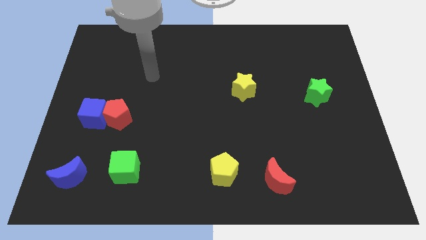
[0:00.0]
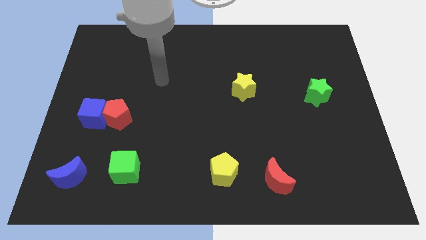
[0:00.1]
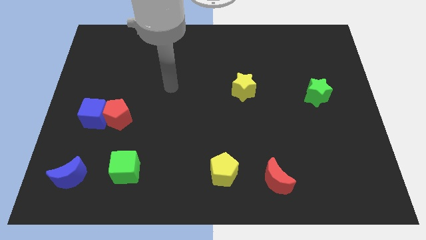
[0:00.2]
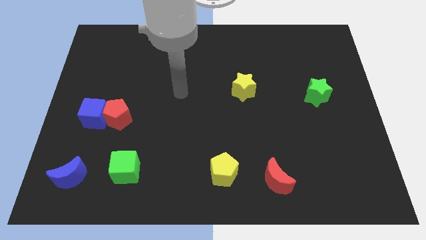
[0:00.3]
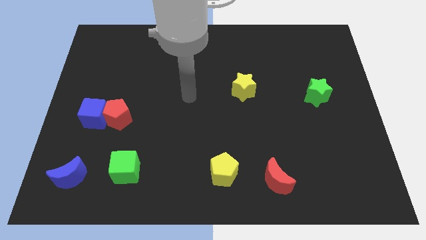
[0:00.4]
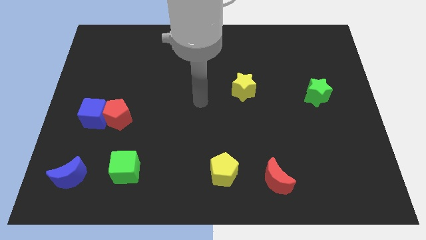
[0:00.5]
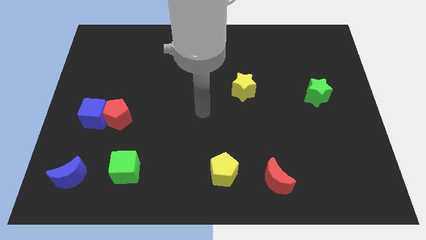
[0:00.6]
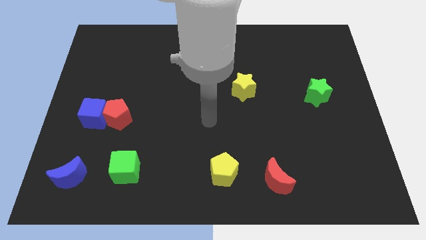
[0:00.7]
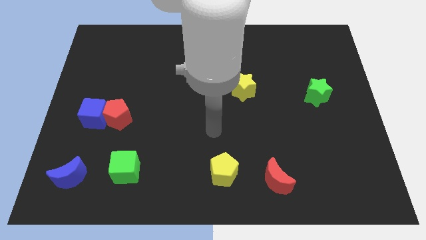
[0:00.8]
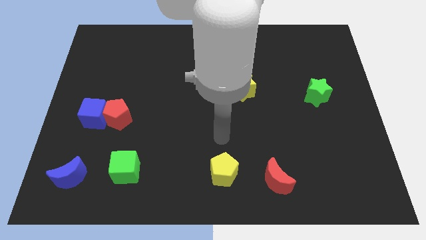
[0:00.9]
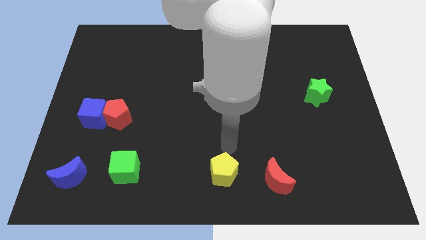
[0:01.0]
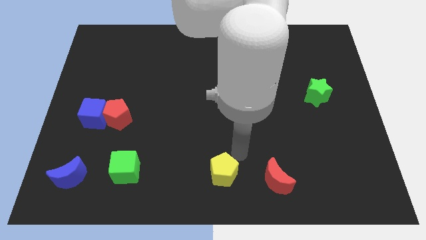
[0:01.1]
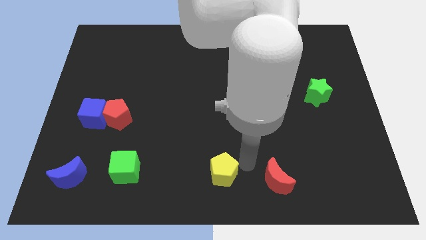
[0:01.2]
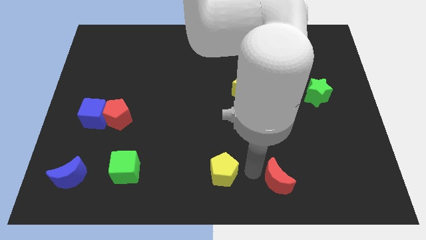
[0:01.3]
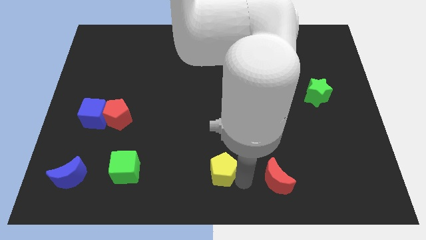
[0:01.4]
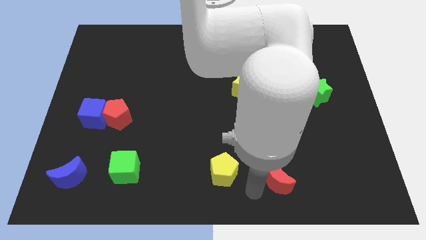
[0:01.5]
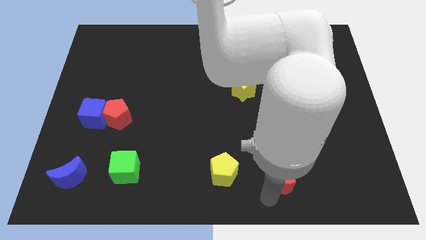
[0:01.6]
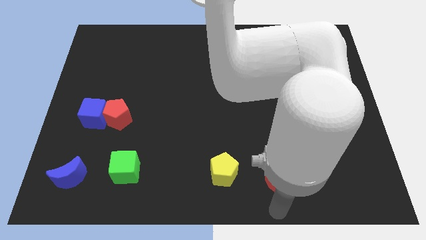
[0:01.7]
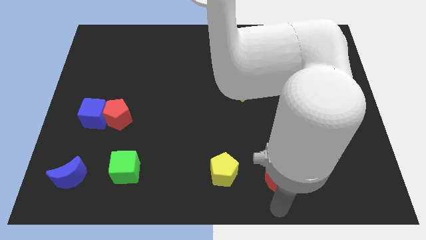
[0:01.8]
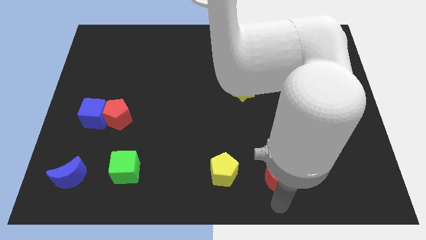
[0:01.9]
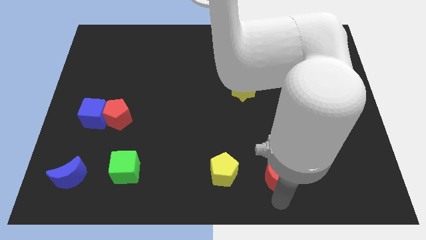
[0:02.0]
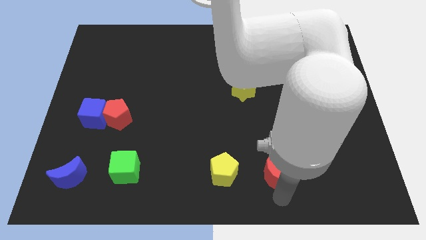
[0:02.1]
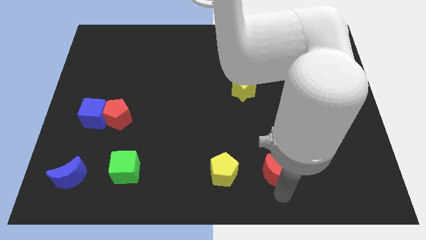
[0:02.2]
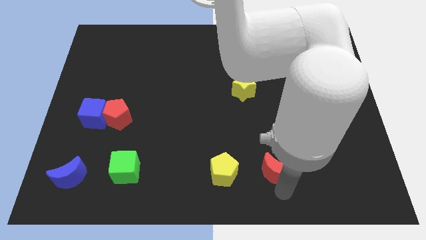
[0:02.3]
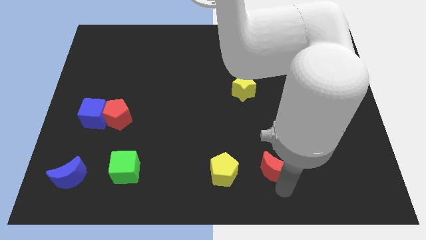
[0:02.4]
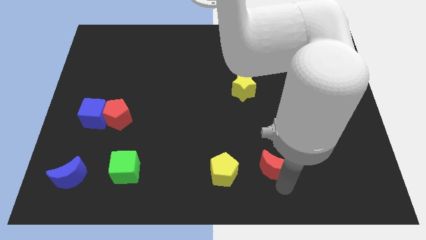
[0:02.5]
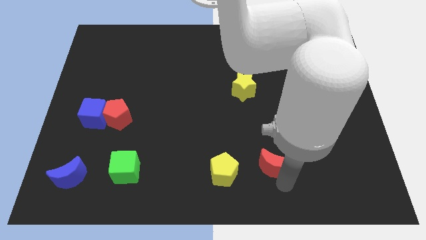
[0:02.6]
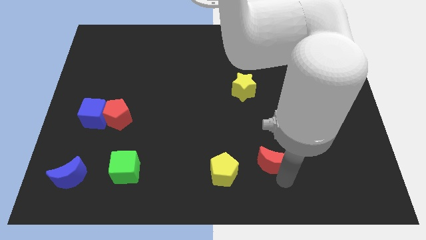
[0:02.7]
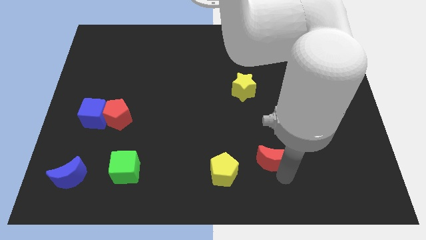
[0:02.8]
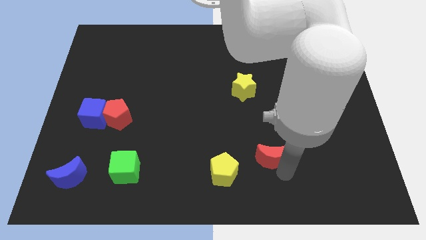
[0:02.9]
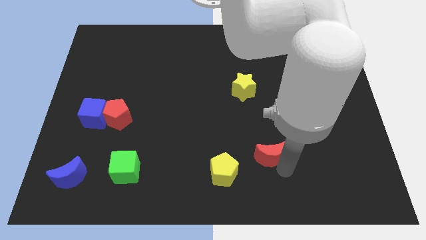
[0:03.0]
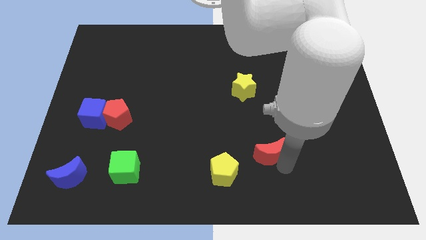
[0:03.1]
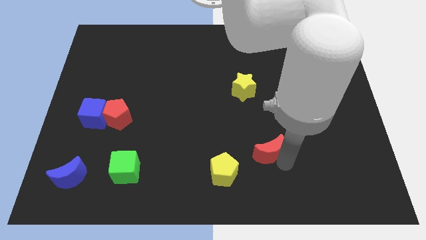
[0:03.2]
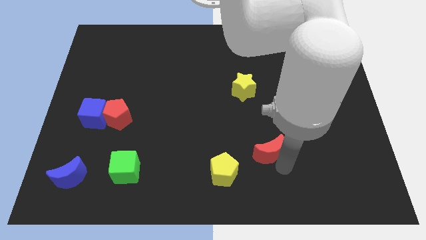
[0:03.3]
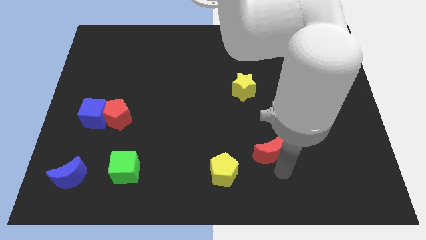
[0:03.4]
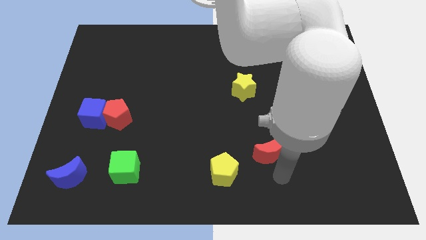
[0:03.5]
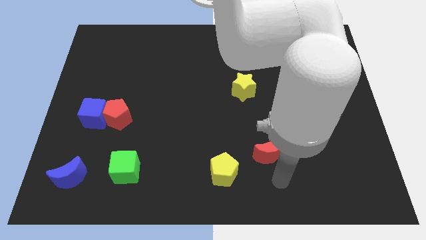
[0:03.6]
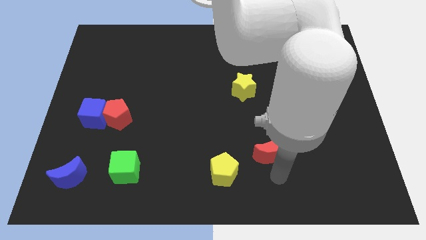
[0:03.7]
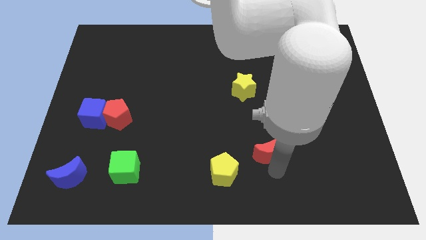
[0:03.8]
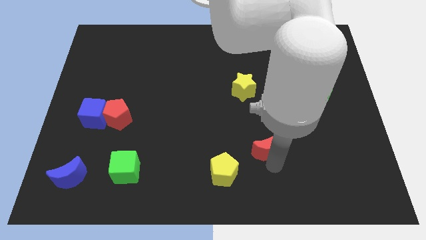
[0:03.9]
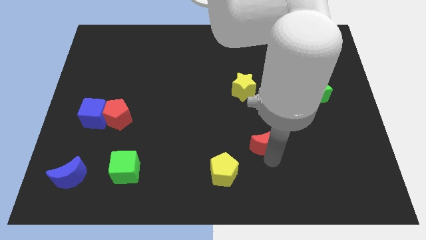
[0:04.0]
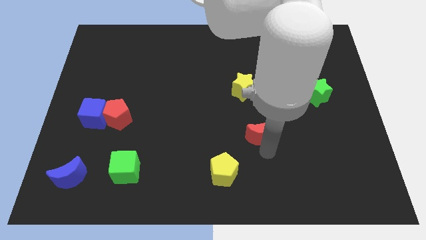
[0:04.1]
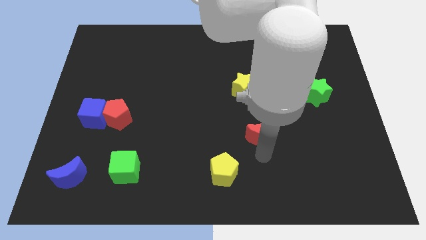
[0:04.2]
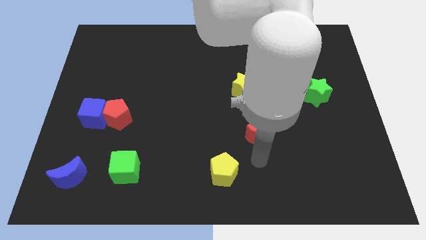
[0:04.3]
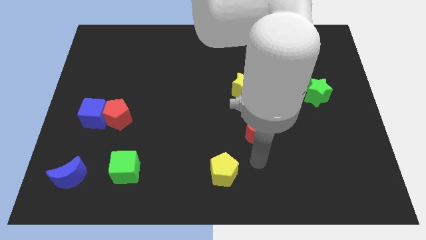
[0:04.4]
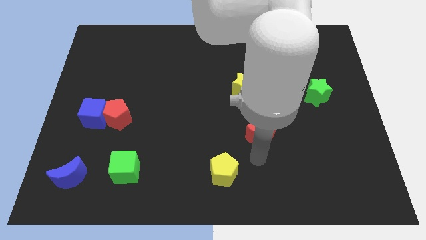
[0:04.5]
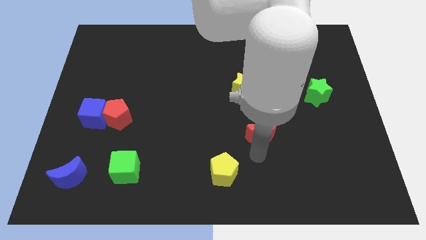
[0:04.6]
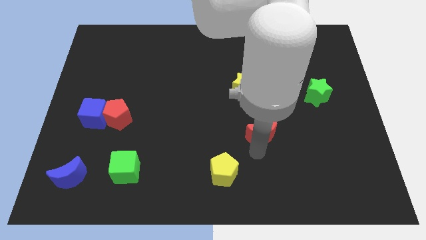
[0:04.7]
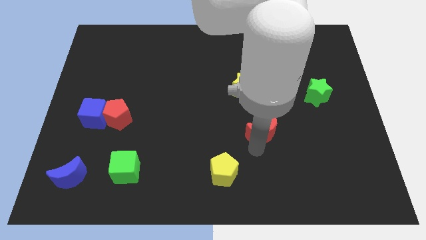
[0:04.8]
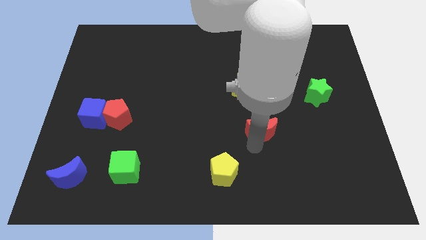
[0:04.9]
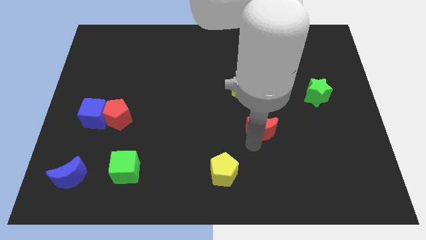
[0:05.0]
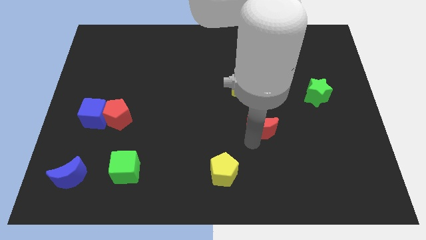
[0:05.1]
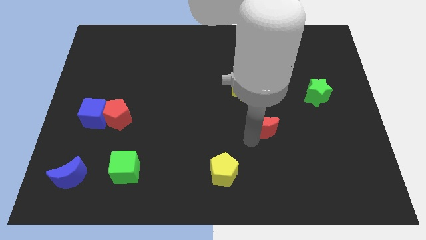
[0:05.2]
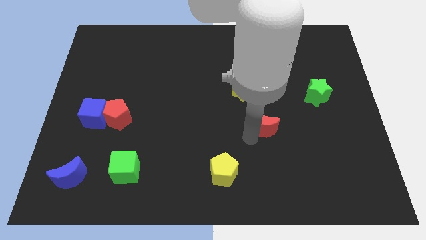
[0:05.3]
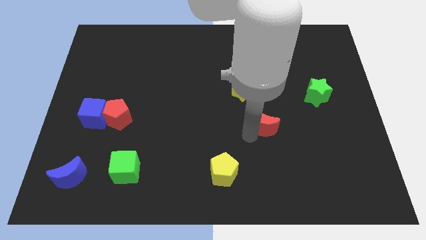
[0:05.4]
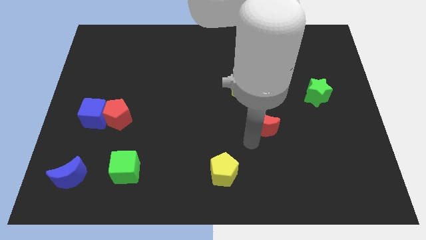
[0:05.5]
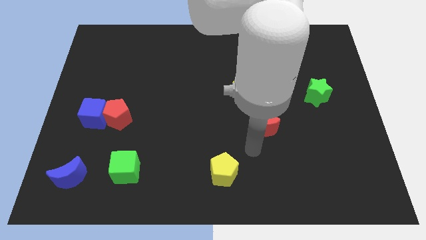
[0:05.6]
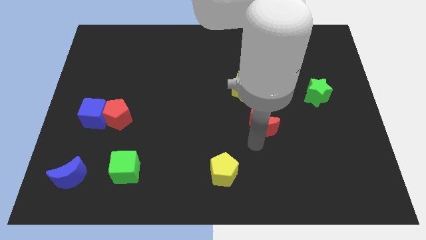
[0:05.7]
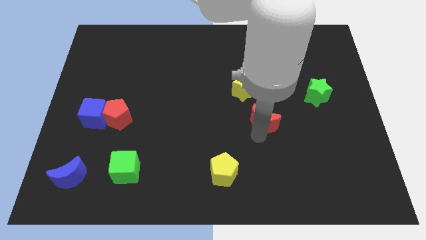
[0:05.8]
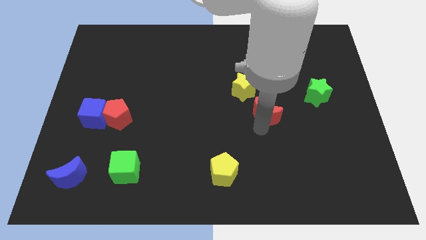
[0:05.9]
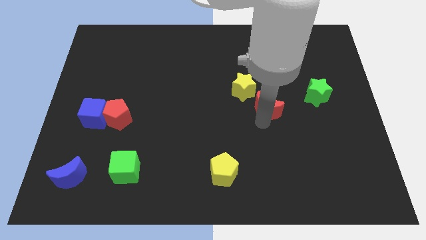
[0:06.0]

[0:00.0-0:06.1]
move the red moon to the left of the green star

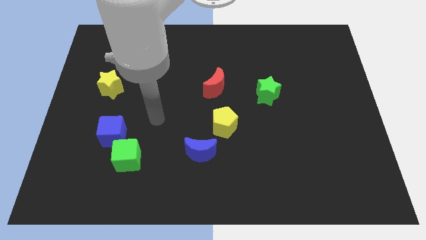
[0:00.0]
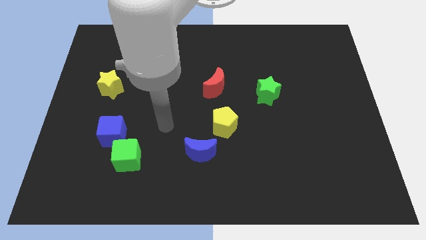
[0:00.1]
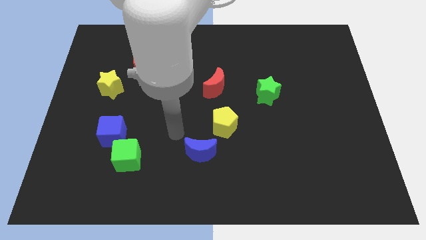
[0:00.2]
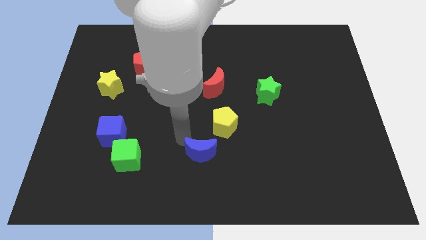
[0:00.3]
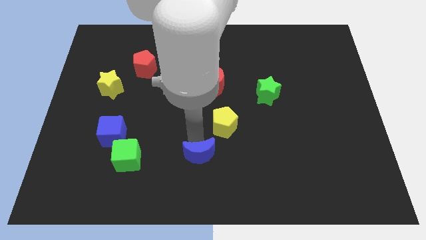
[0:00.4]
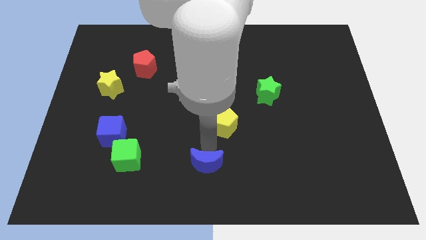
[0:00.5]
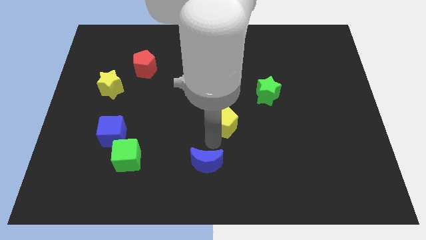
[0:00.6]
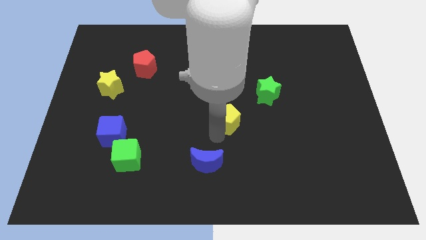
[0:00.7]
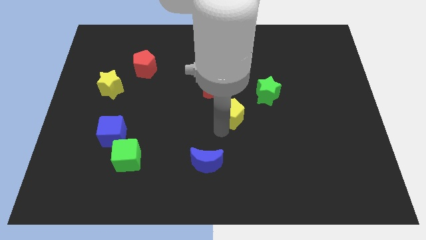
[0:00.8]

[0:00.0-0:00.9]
move the yellow pentagon diagonally down and to the right of the red moon
